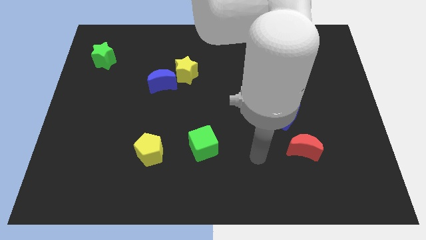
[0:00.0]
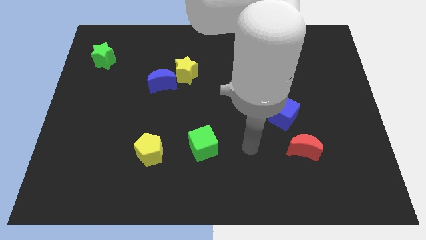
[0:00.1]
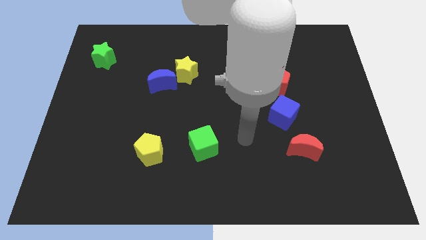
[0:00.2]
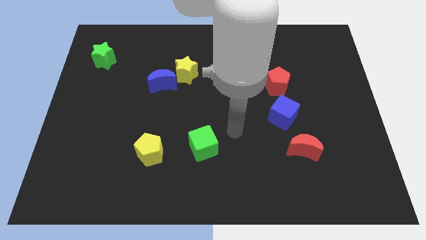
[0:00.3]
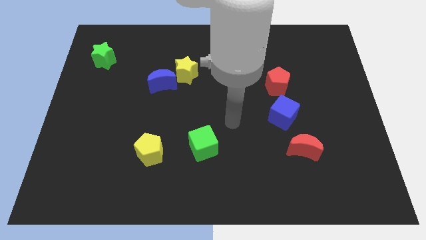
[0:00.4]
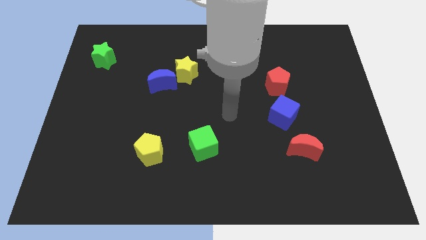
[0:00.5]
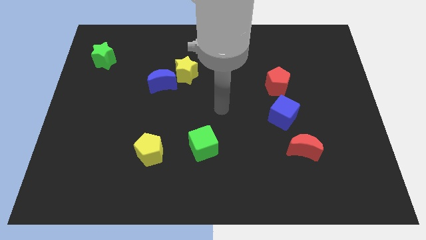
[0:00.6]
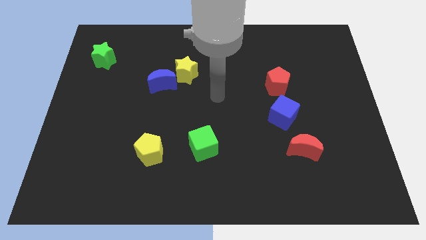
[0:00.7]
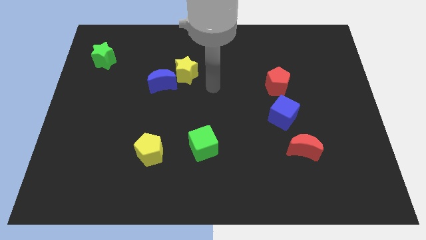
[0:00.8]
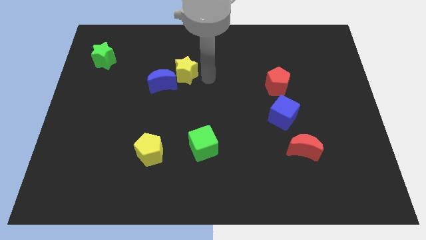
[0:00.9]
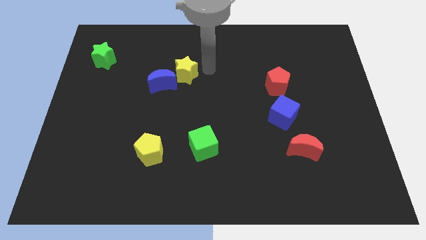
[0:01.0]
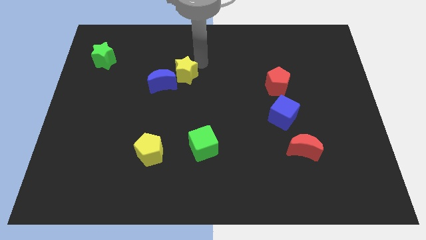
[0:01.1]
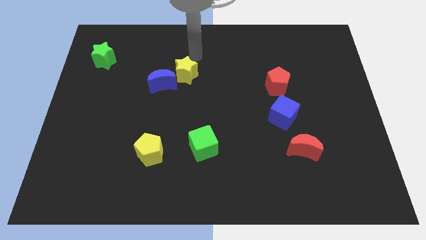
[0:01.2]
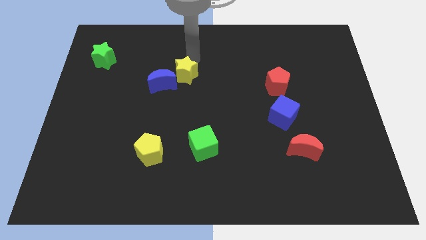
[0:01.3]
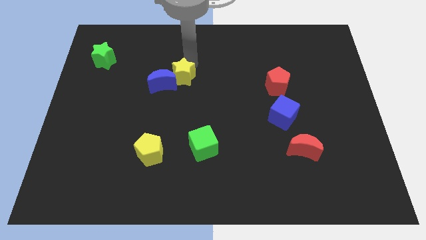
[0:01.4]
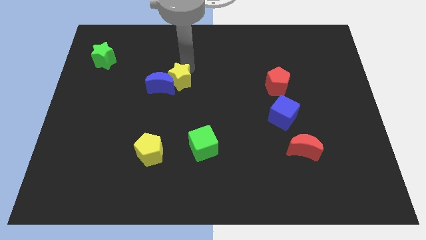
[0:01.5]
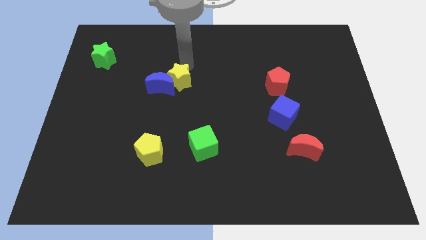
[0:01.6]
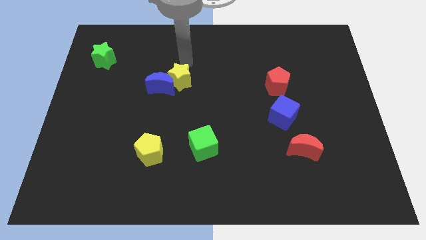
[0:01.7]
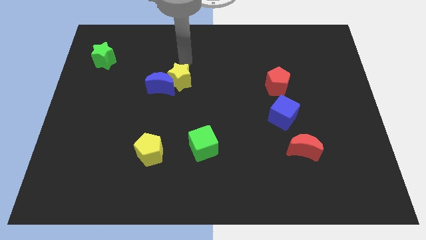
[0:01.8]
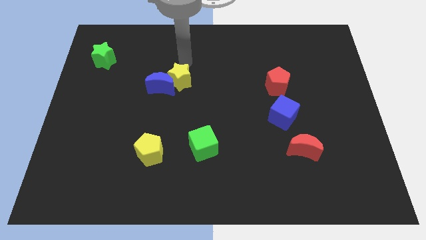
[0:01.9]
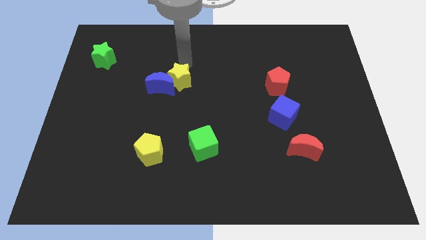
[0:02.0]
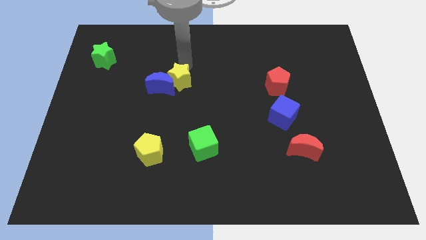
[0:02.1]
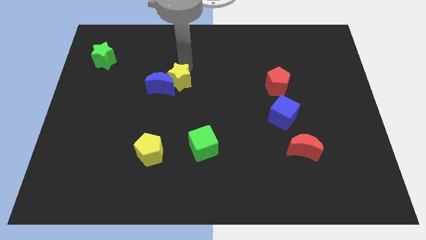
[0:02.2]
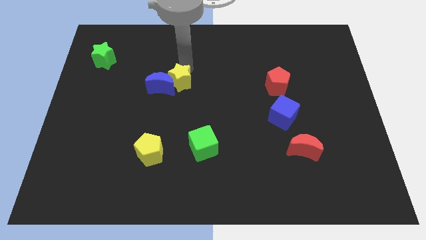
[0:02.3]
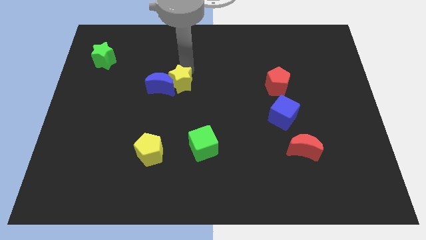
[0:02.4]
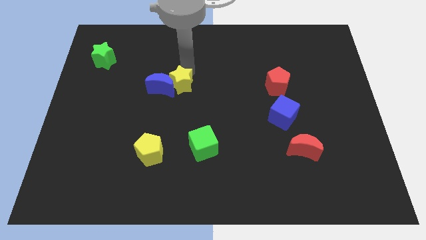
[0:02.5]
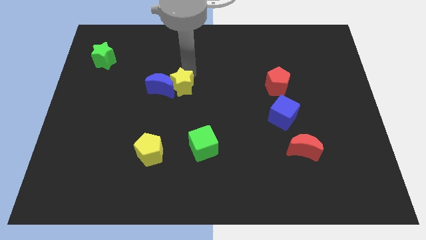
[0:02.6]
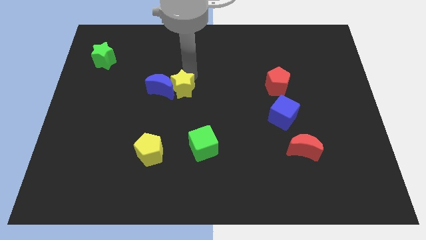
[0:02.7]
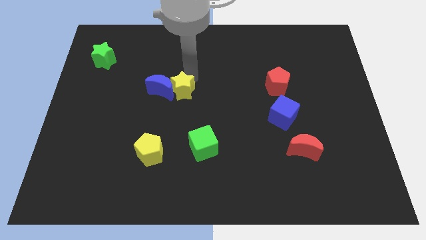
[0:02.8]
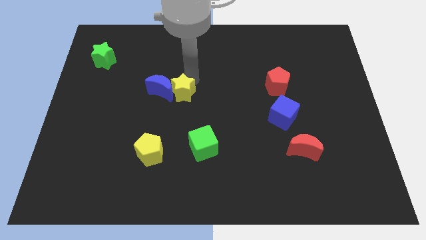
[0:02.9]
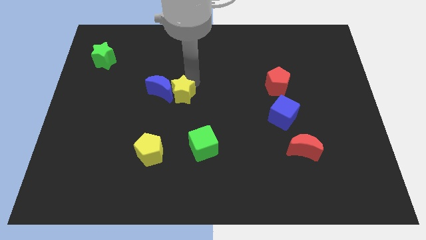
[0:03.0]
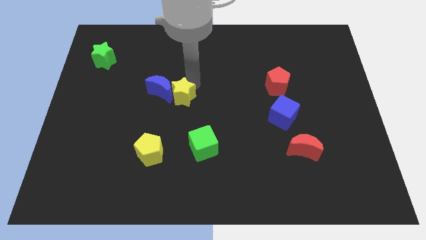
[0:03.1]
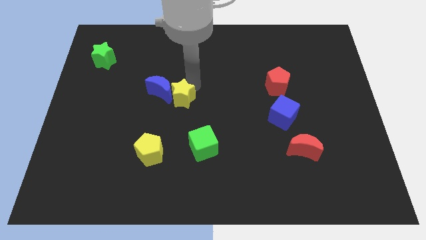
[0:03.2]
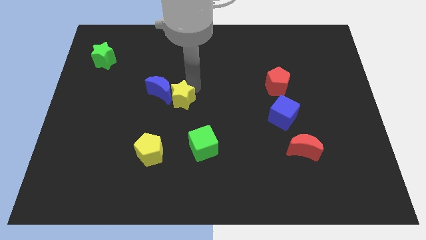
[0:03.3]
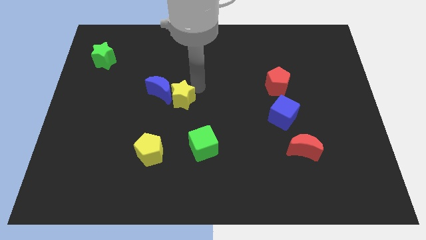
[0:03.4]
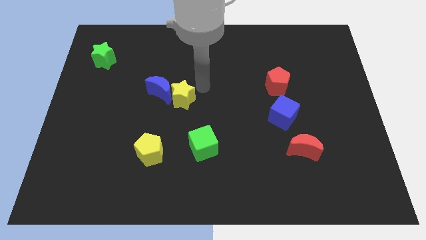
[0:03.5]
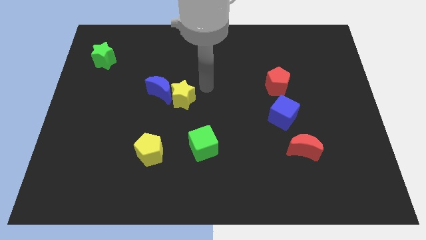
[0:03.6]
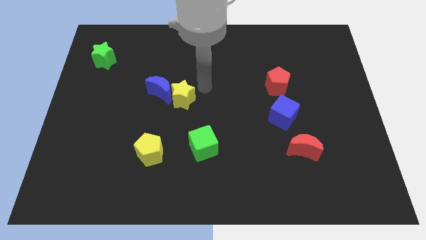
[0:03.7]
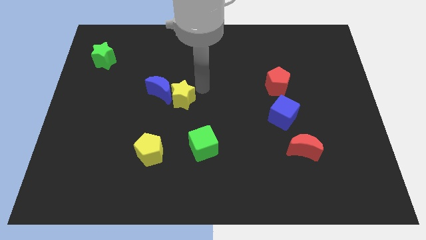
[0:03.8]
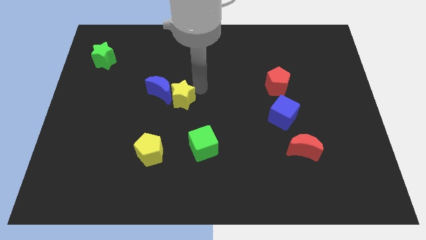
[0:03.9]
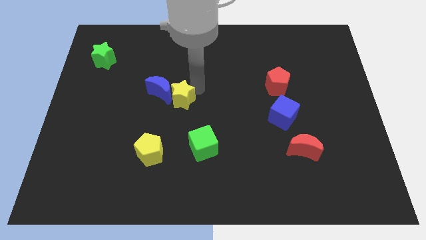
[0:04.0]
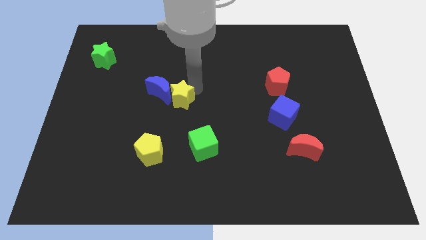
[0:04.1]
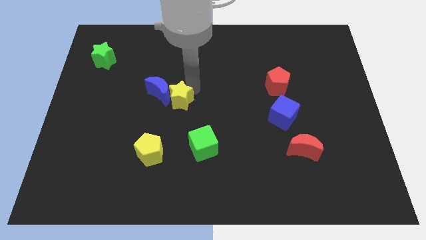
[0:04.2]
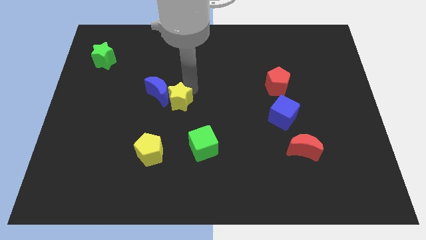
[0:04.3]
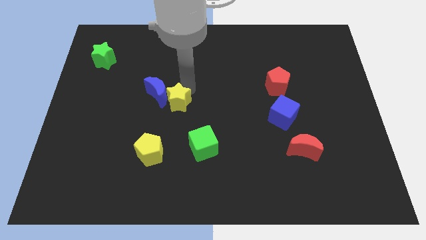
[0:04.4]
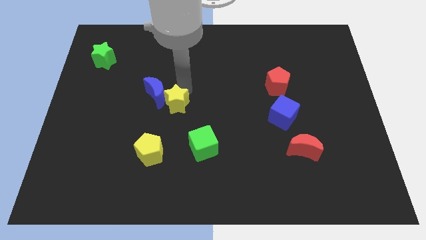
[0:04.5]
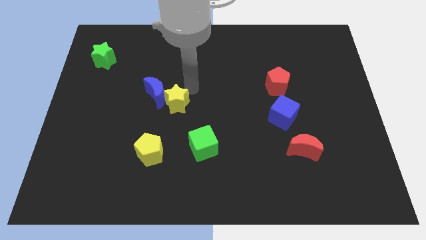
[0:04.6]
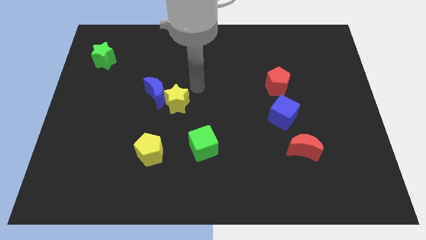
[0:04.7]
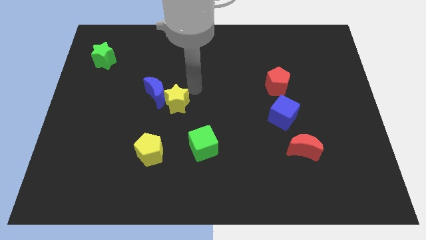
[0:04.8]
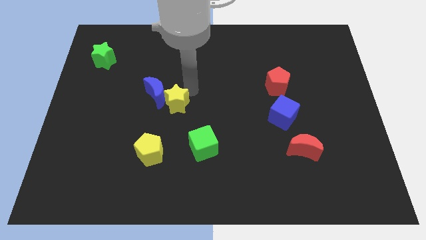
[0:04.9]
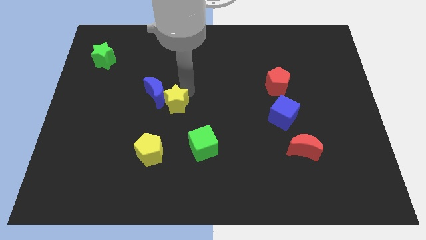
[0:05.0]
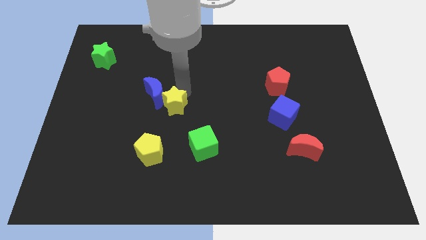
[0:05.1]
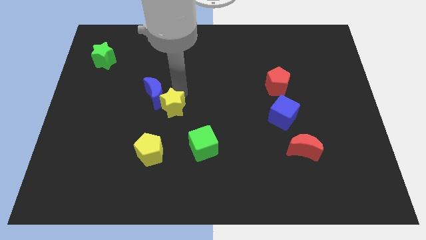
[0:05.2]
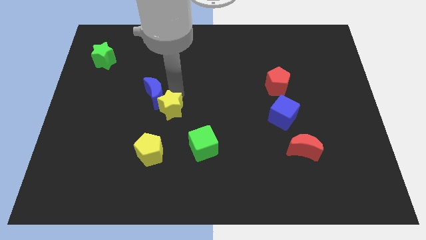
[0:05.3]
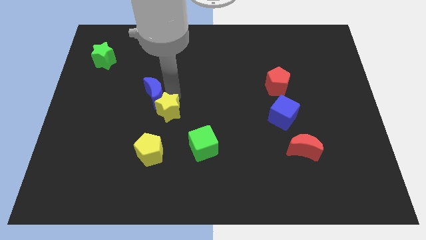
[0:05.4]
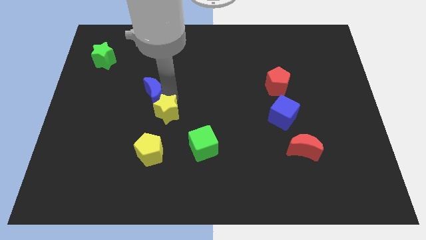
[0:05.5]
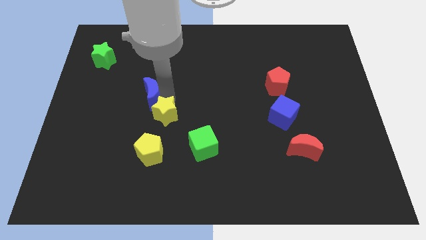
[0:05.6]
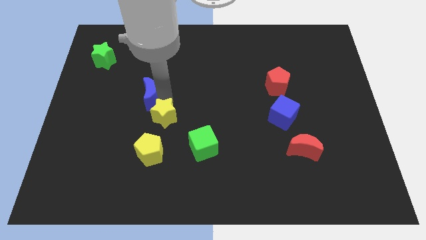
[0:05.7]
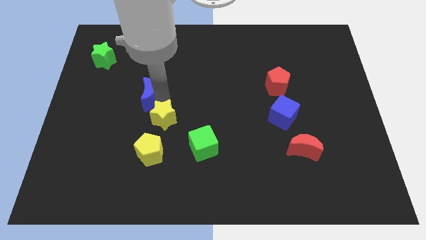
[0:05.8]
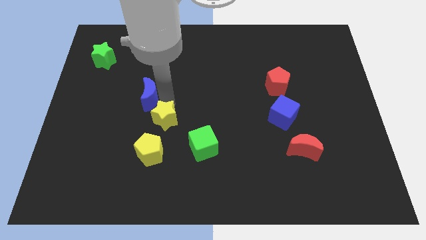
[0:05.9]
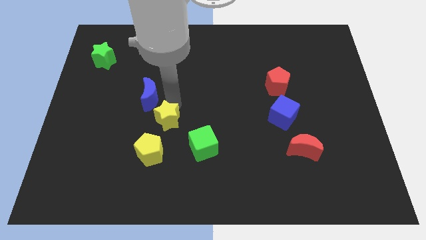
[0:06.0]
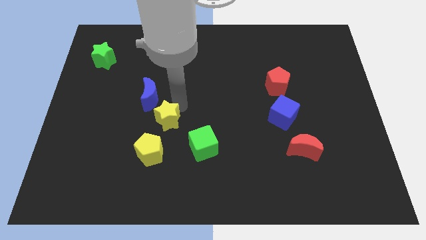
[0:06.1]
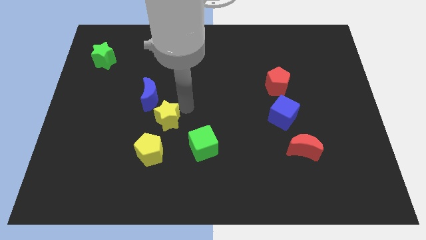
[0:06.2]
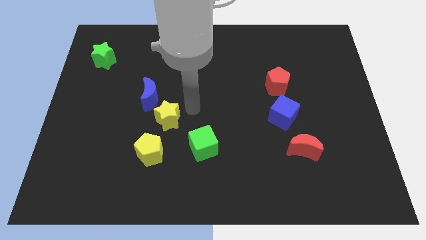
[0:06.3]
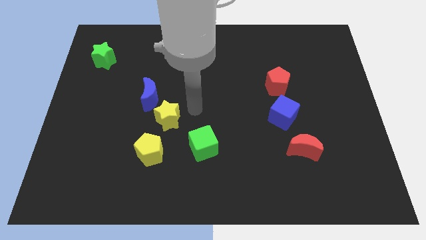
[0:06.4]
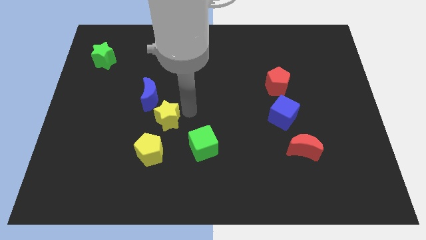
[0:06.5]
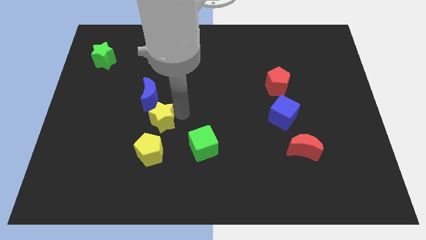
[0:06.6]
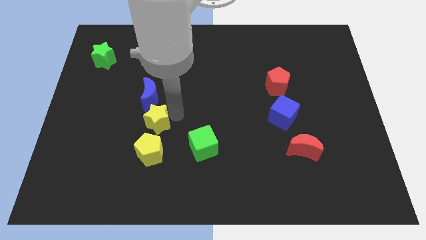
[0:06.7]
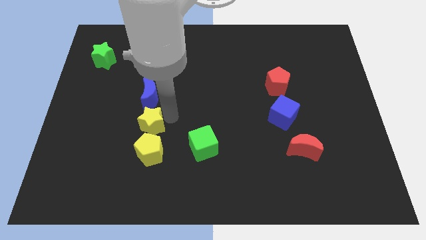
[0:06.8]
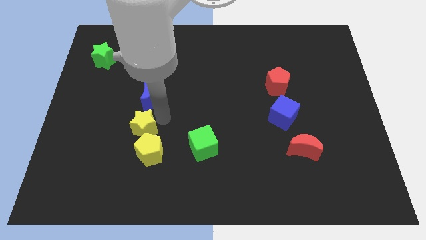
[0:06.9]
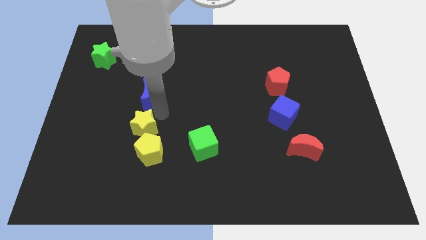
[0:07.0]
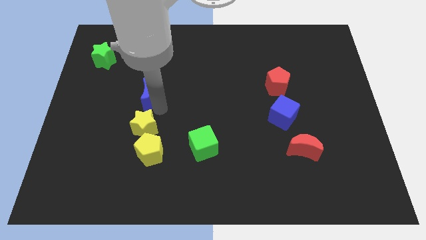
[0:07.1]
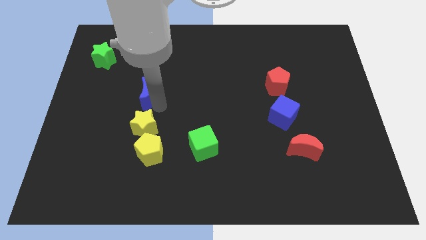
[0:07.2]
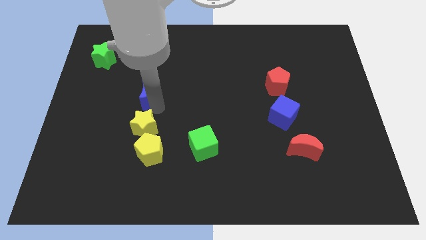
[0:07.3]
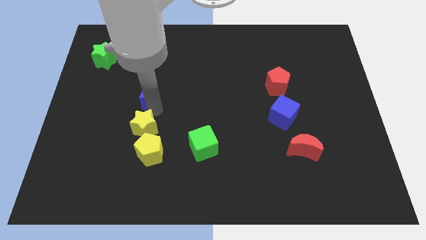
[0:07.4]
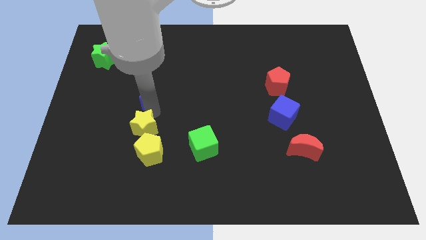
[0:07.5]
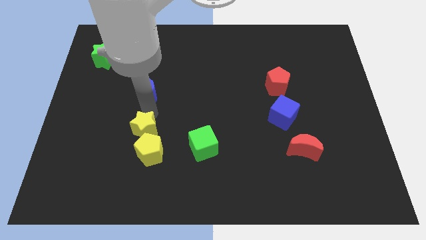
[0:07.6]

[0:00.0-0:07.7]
slide the yellow star just left of the green cube
